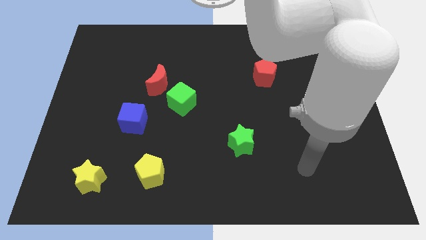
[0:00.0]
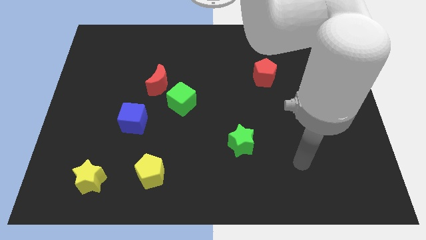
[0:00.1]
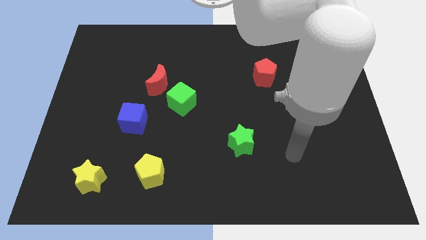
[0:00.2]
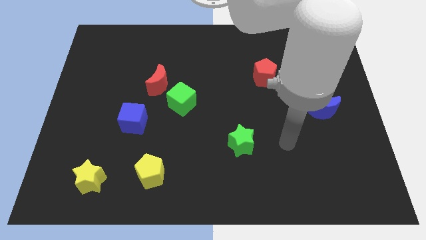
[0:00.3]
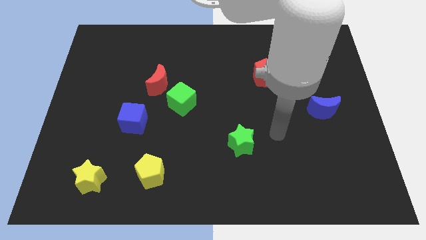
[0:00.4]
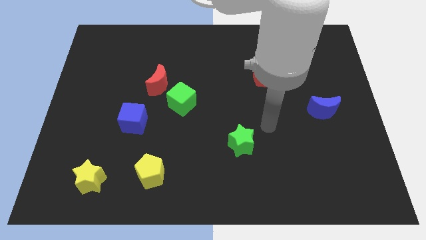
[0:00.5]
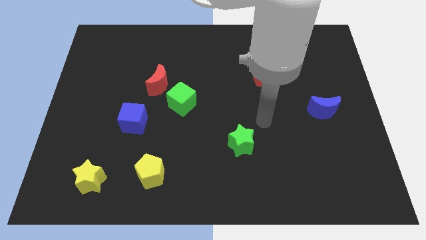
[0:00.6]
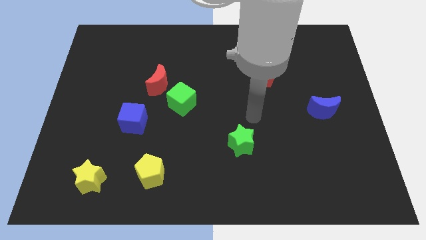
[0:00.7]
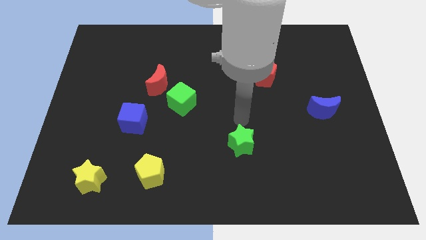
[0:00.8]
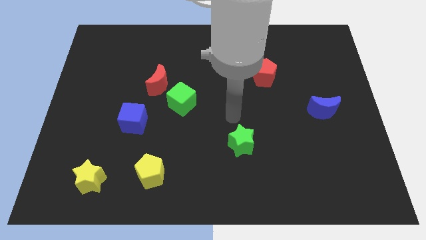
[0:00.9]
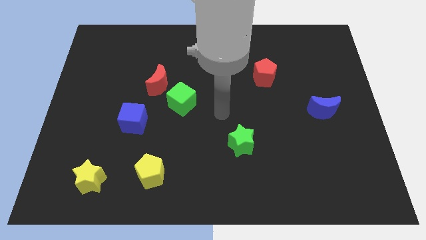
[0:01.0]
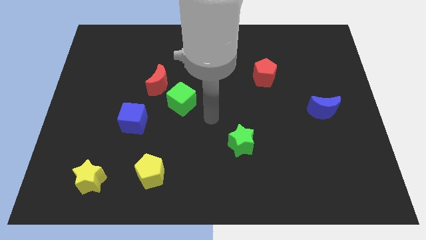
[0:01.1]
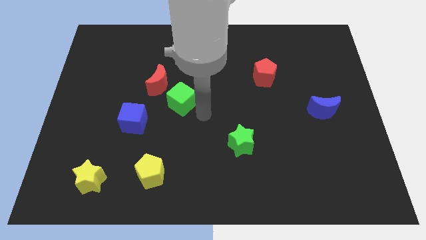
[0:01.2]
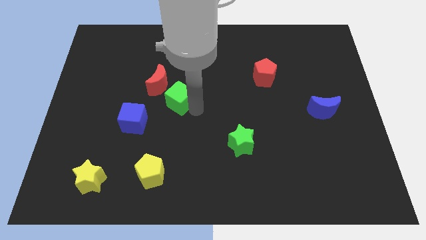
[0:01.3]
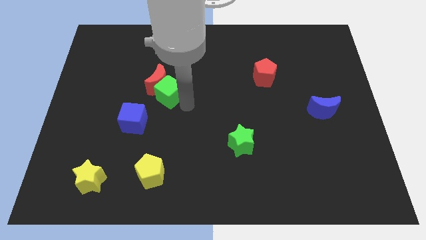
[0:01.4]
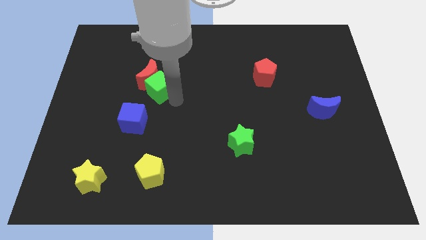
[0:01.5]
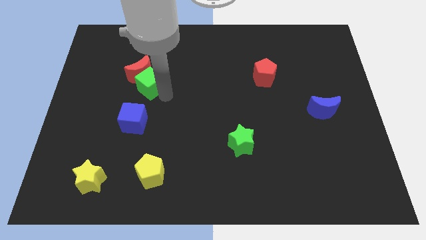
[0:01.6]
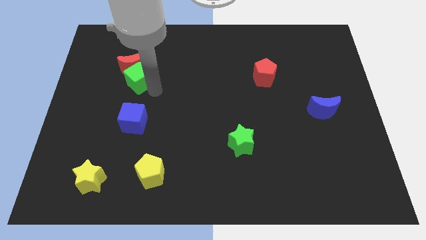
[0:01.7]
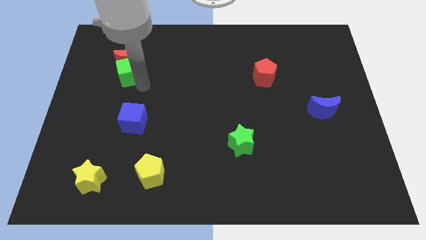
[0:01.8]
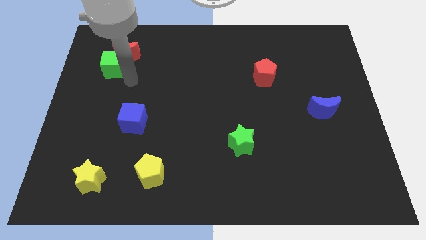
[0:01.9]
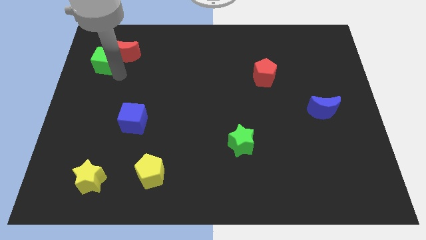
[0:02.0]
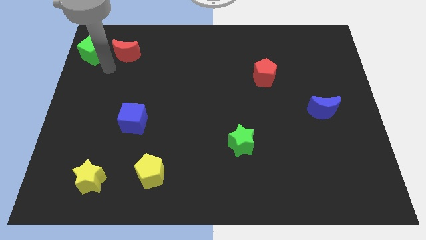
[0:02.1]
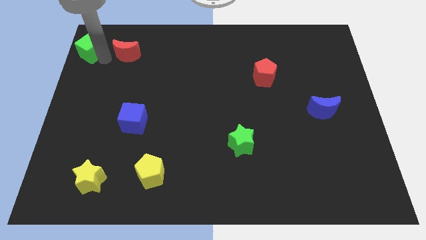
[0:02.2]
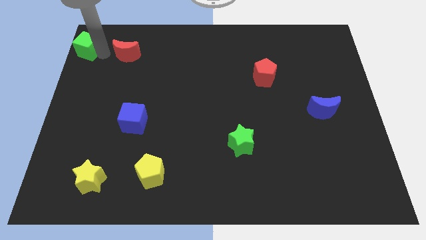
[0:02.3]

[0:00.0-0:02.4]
separate the red moon from the green cube

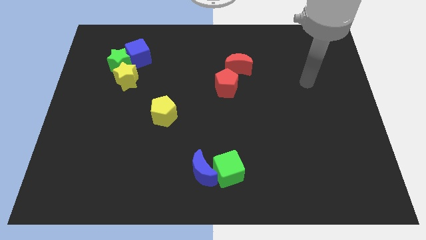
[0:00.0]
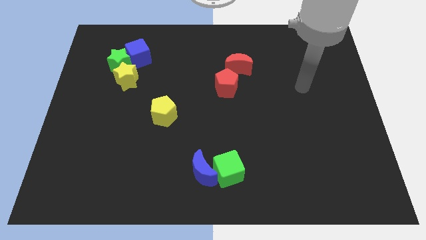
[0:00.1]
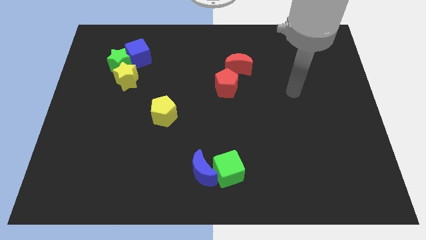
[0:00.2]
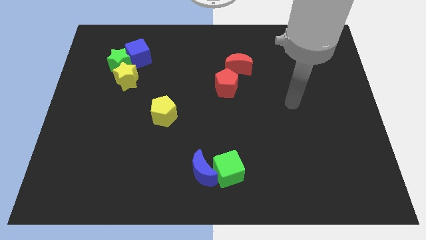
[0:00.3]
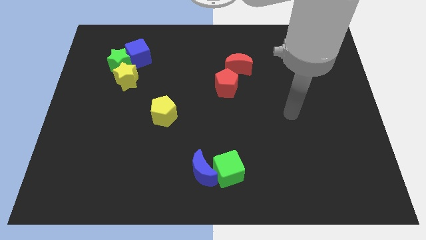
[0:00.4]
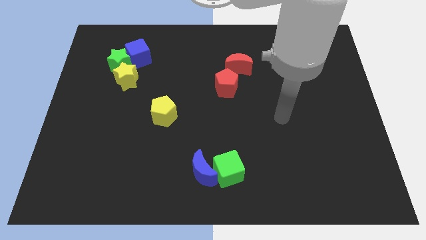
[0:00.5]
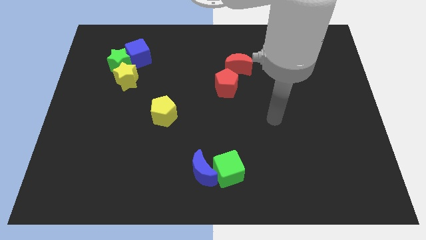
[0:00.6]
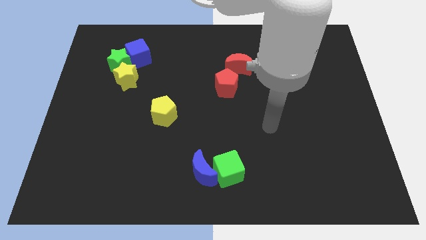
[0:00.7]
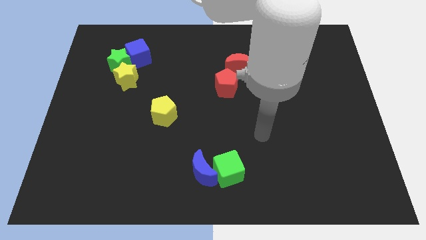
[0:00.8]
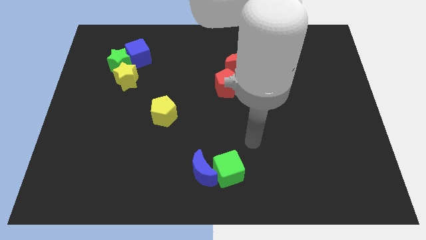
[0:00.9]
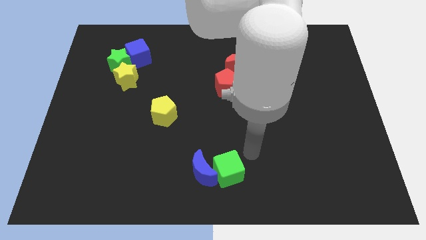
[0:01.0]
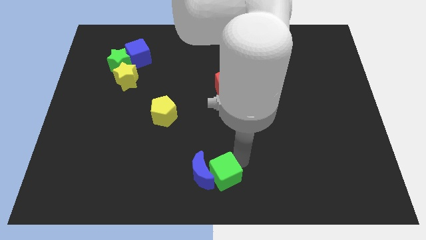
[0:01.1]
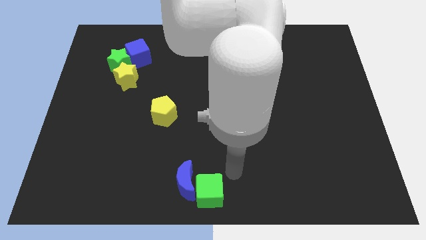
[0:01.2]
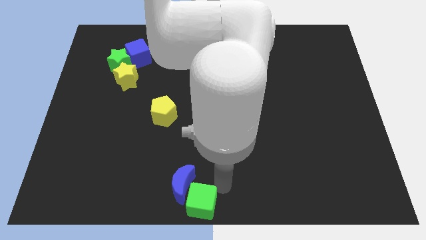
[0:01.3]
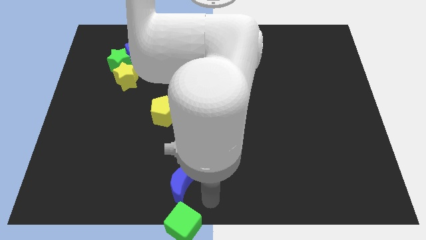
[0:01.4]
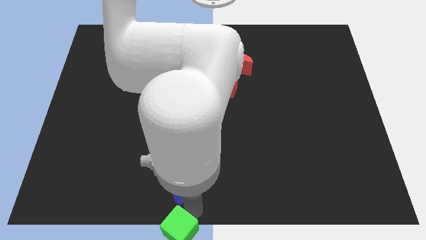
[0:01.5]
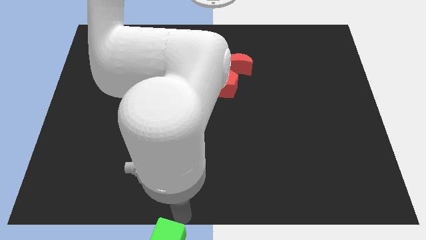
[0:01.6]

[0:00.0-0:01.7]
move the blue moon away from the green cube

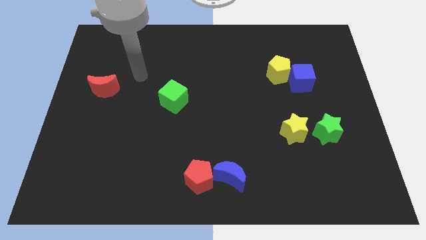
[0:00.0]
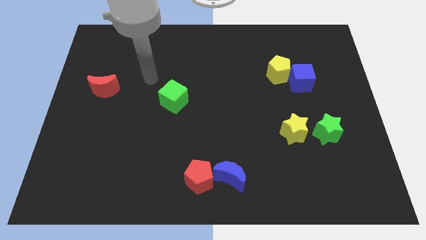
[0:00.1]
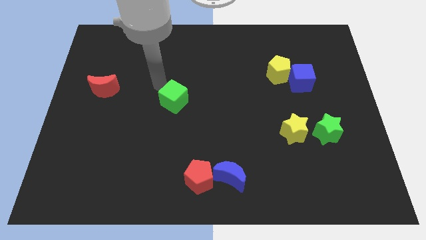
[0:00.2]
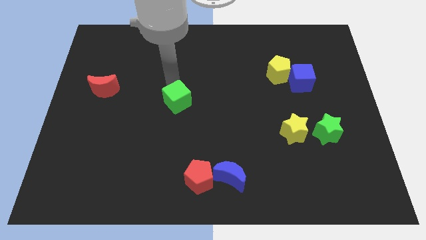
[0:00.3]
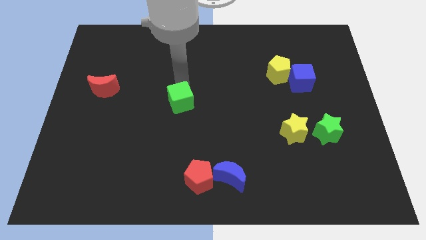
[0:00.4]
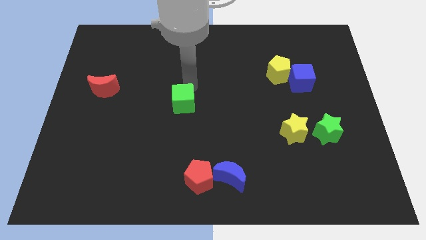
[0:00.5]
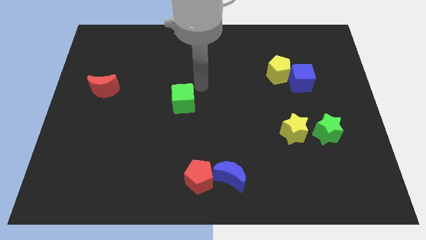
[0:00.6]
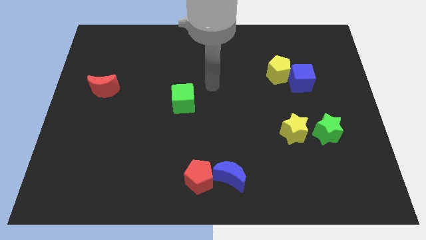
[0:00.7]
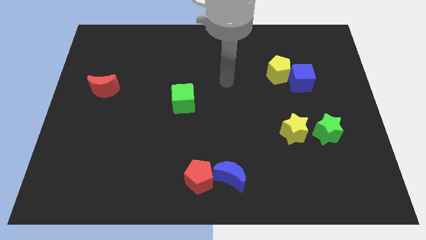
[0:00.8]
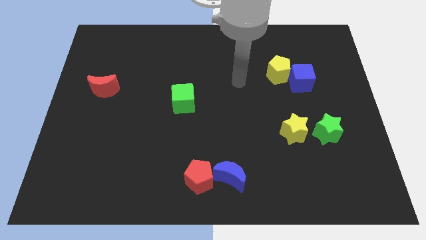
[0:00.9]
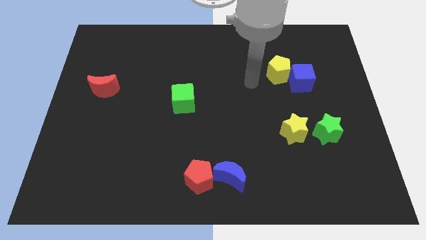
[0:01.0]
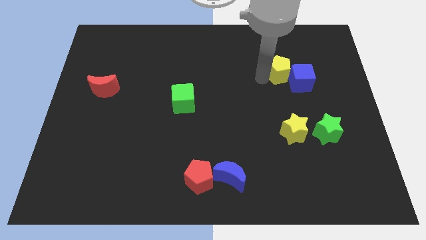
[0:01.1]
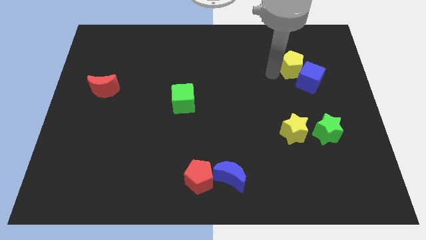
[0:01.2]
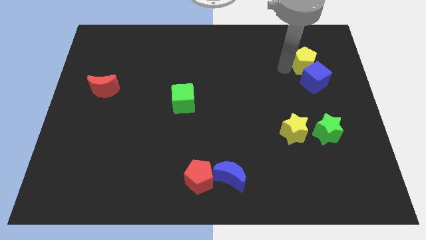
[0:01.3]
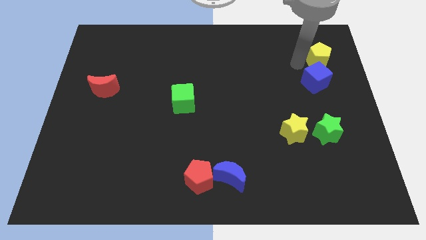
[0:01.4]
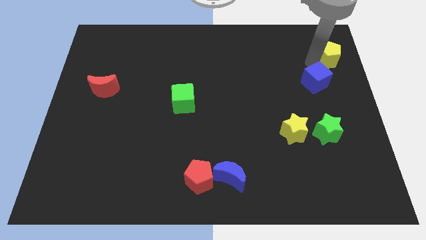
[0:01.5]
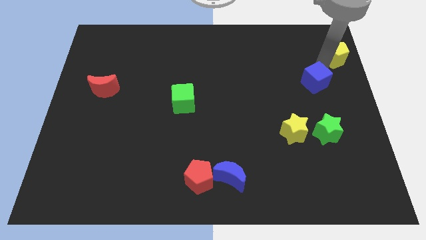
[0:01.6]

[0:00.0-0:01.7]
separate the blue cube from the yellow pentagon

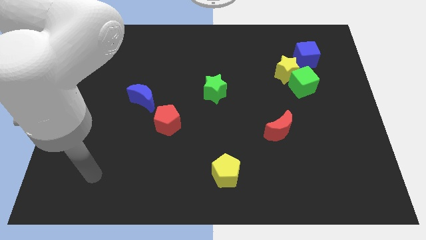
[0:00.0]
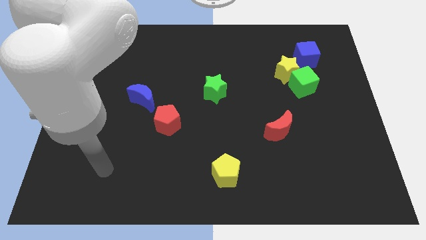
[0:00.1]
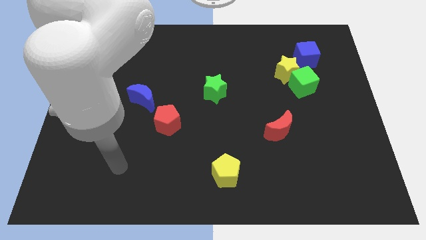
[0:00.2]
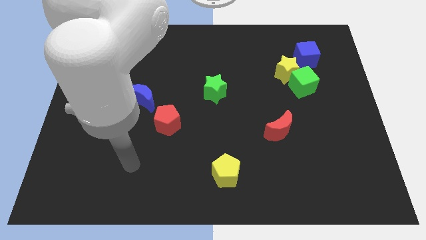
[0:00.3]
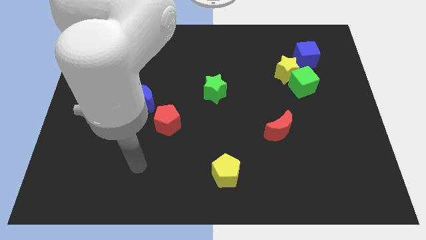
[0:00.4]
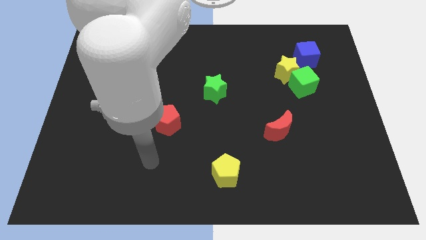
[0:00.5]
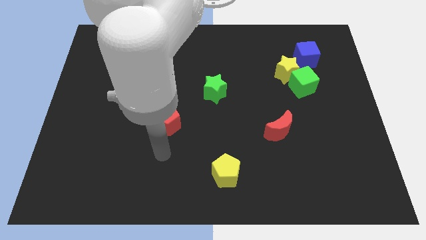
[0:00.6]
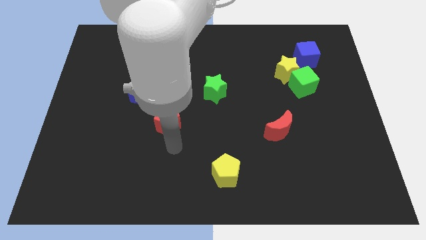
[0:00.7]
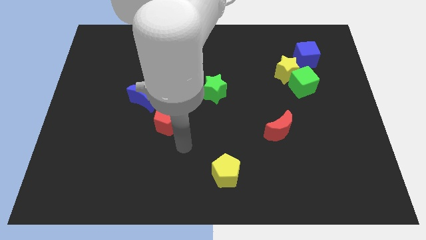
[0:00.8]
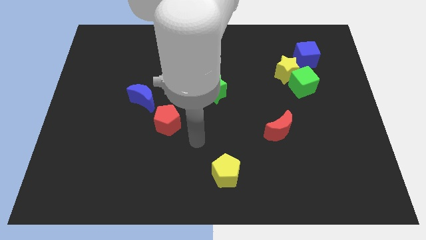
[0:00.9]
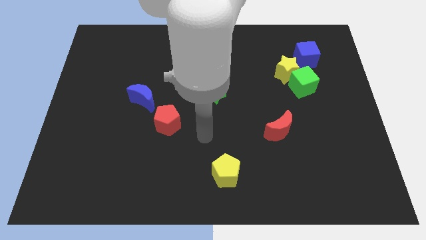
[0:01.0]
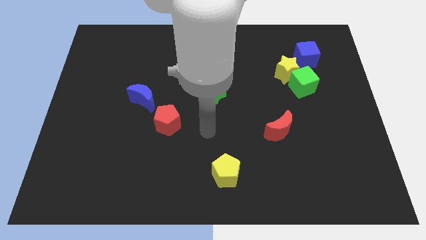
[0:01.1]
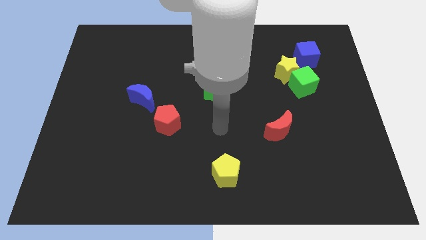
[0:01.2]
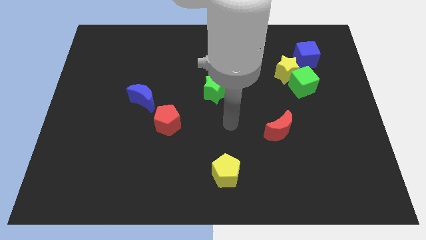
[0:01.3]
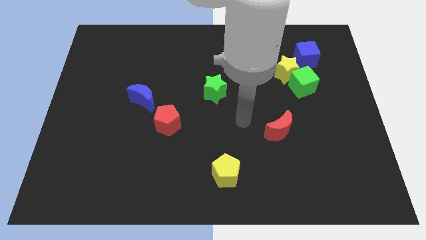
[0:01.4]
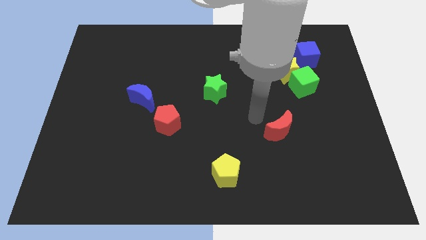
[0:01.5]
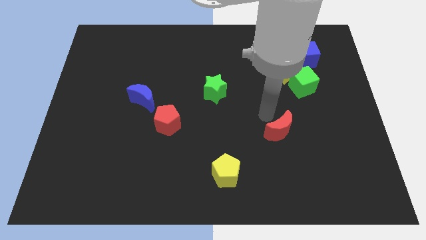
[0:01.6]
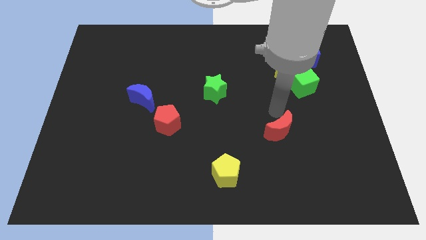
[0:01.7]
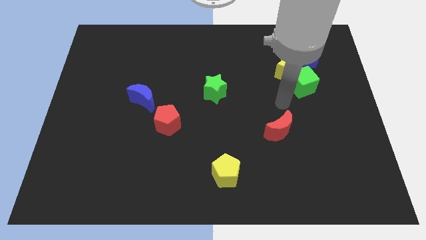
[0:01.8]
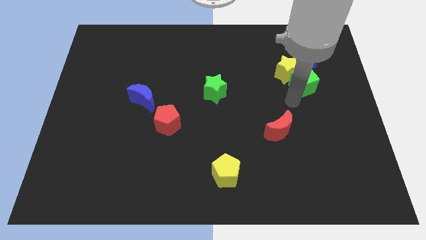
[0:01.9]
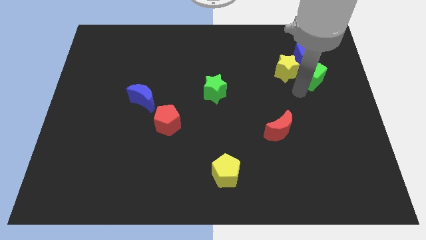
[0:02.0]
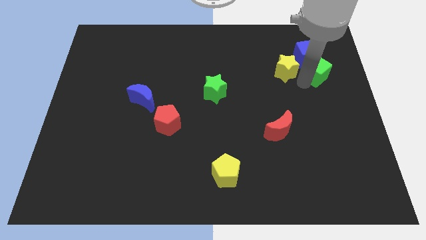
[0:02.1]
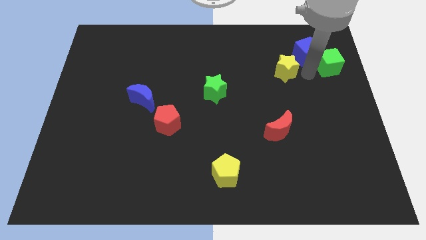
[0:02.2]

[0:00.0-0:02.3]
pull the yellow star apart from the green cube and blue cube

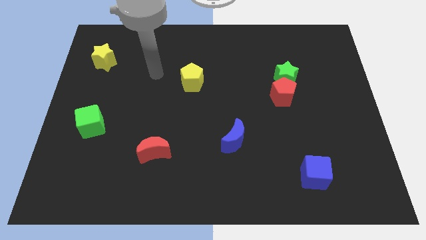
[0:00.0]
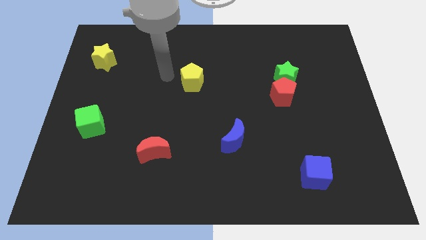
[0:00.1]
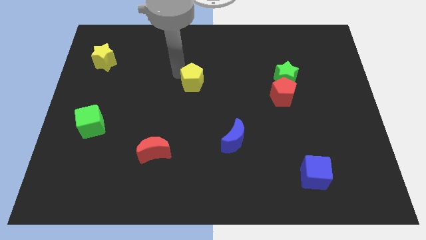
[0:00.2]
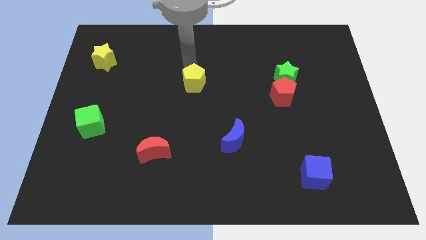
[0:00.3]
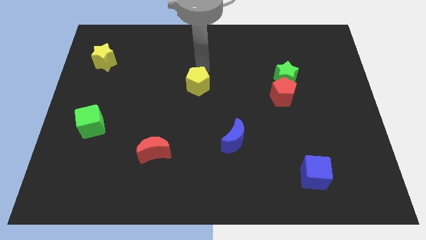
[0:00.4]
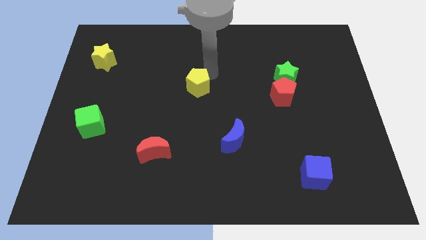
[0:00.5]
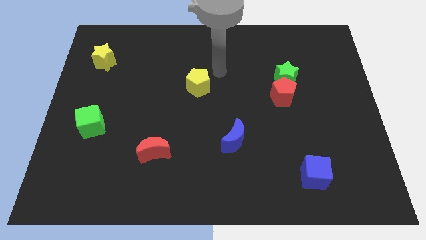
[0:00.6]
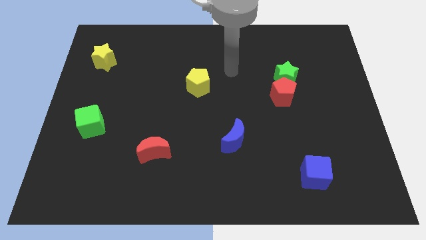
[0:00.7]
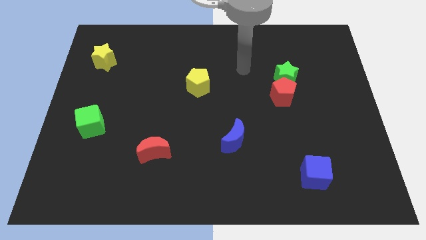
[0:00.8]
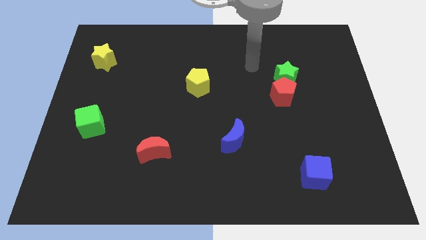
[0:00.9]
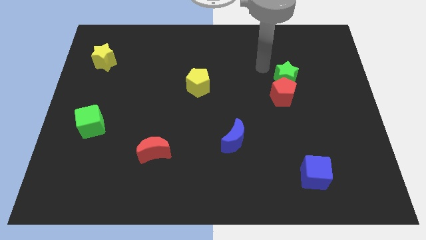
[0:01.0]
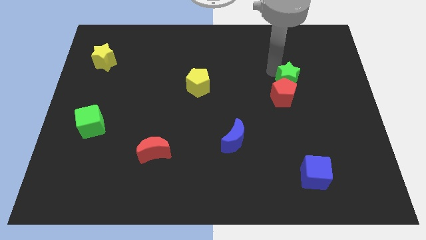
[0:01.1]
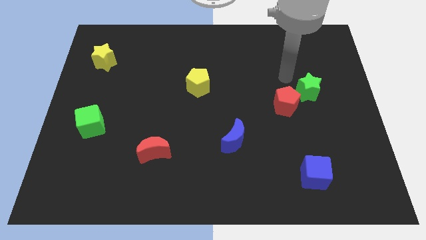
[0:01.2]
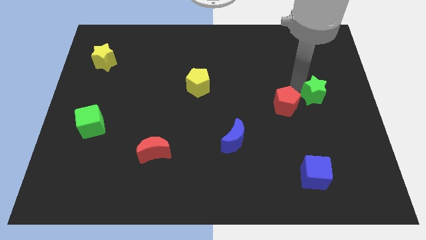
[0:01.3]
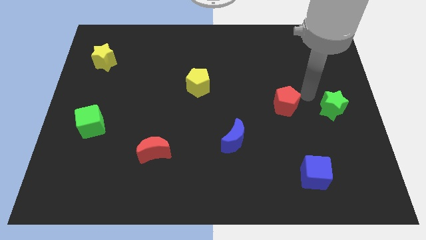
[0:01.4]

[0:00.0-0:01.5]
move the red pentagon away from the green star
